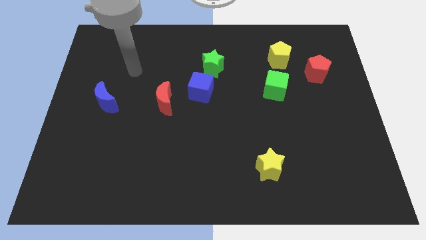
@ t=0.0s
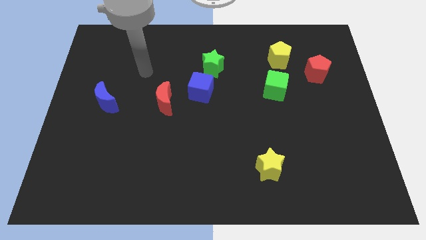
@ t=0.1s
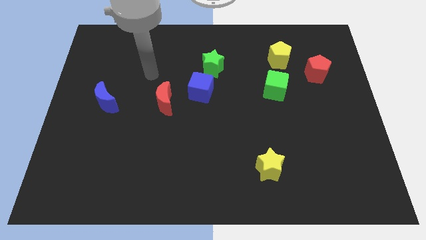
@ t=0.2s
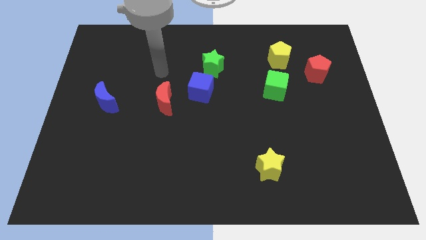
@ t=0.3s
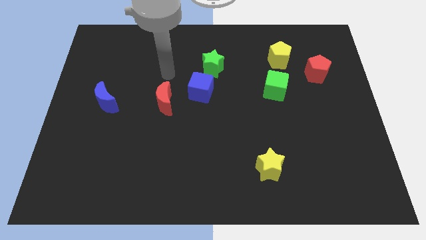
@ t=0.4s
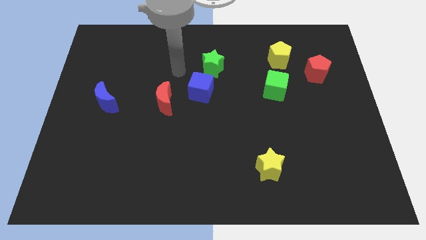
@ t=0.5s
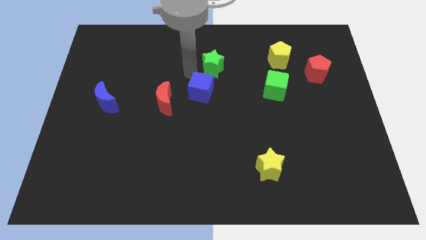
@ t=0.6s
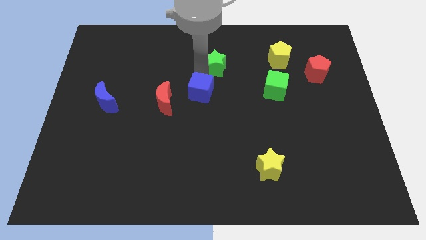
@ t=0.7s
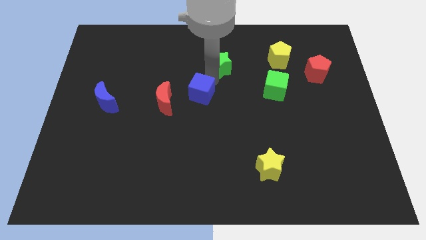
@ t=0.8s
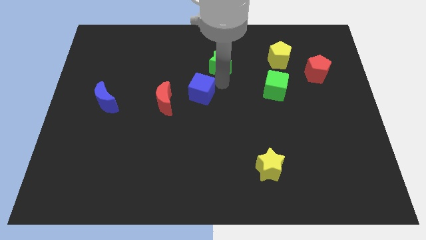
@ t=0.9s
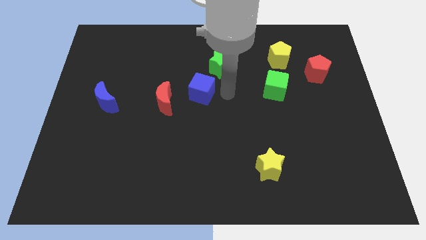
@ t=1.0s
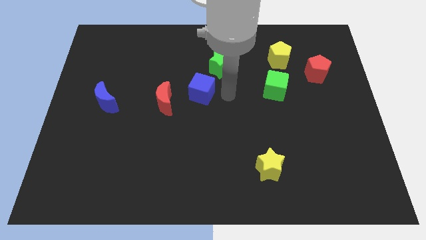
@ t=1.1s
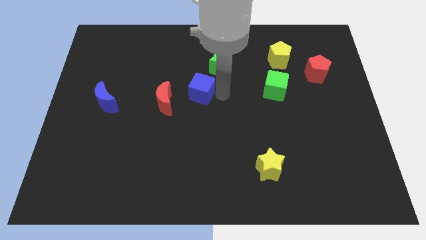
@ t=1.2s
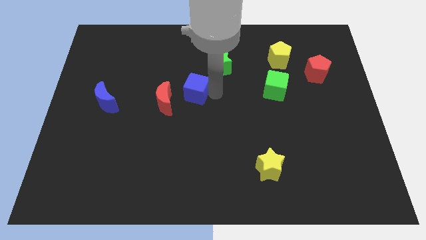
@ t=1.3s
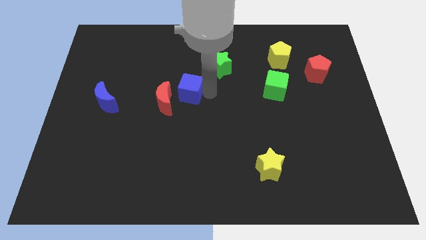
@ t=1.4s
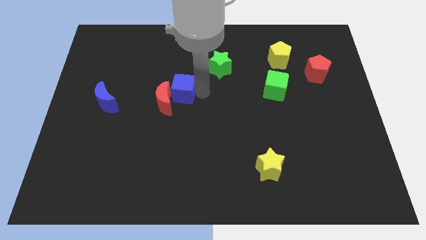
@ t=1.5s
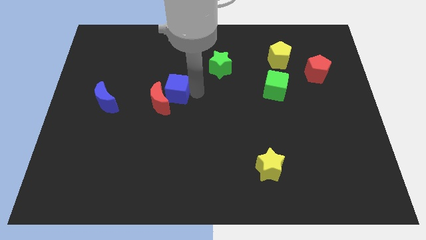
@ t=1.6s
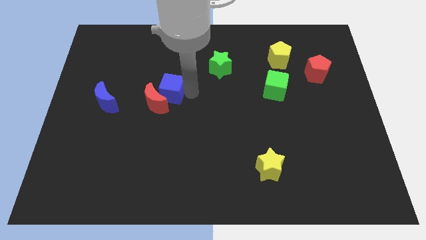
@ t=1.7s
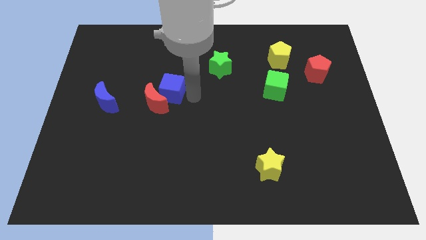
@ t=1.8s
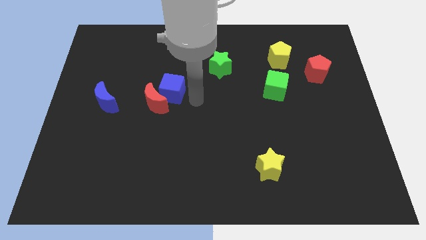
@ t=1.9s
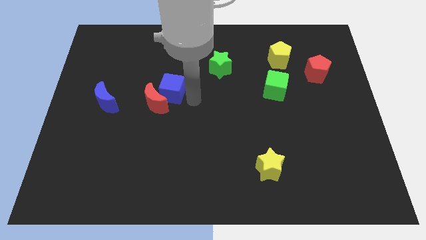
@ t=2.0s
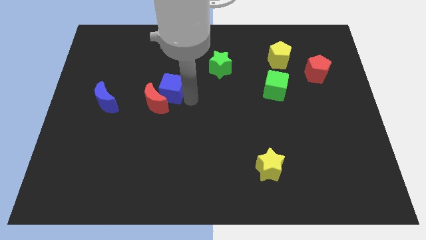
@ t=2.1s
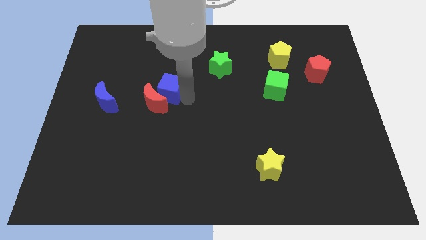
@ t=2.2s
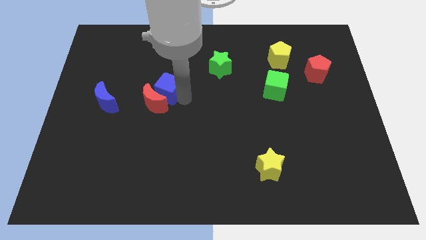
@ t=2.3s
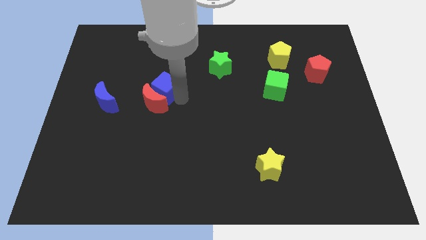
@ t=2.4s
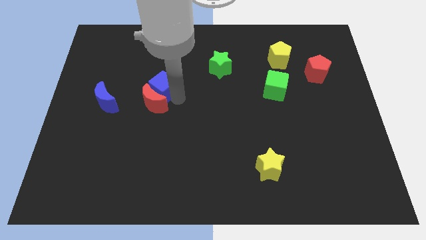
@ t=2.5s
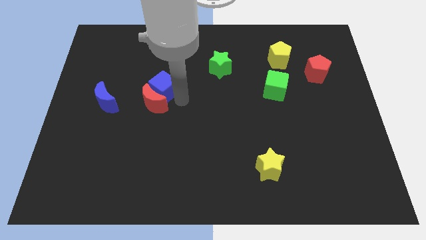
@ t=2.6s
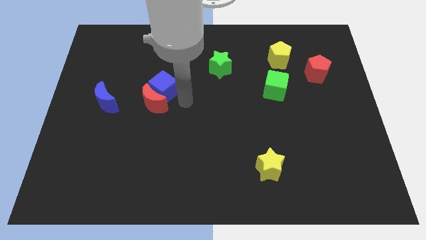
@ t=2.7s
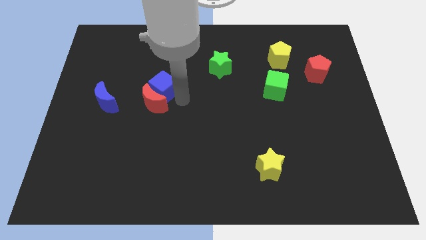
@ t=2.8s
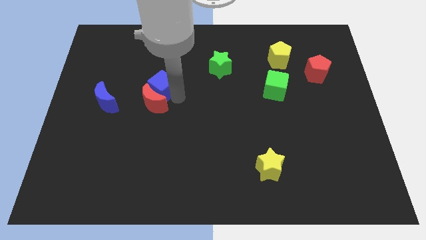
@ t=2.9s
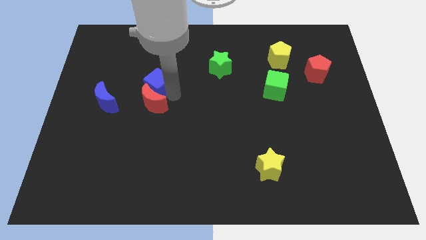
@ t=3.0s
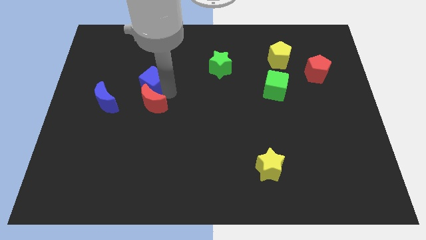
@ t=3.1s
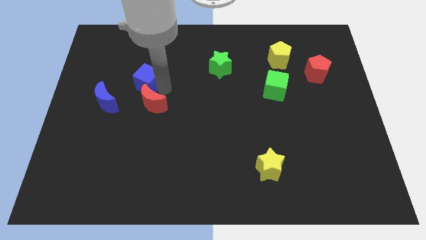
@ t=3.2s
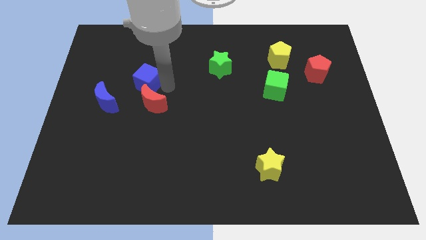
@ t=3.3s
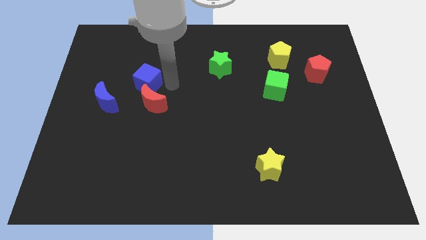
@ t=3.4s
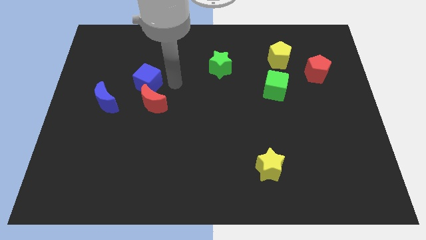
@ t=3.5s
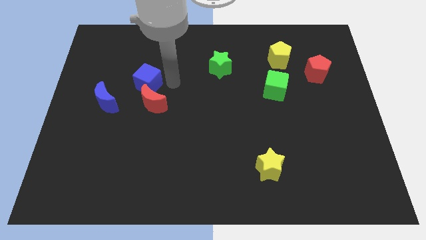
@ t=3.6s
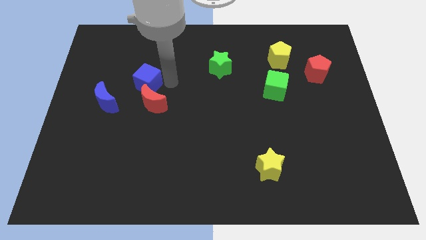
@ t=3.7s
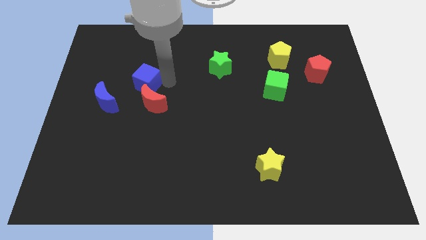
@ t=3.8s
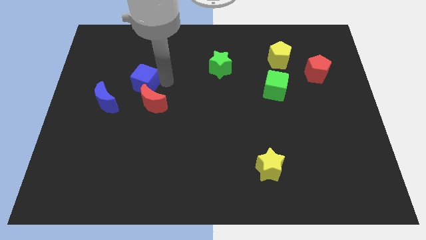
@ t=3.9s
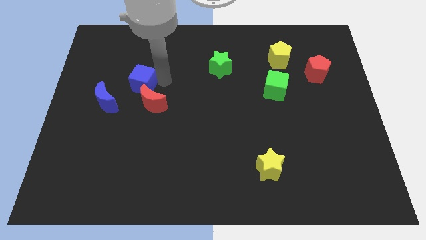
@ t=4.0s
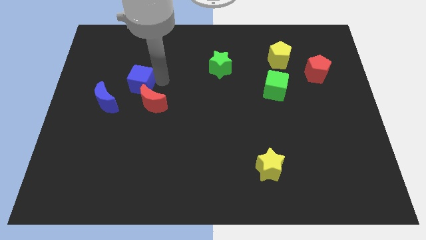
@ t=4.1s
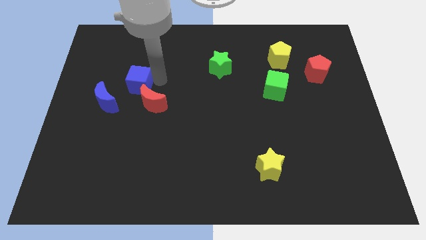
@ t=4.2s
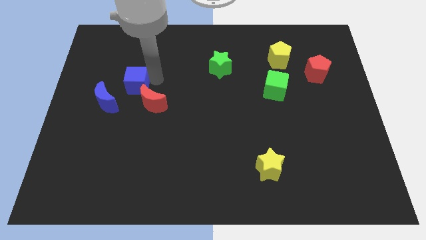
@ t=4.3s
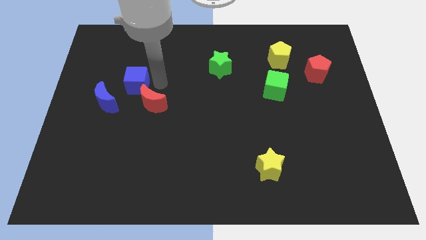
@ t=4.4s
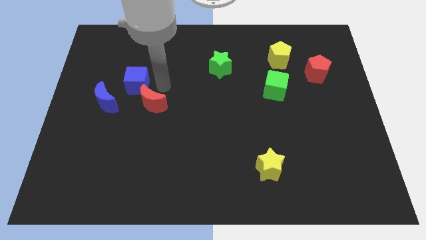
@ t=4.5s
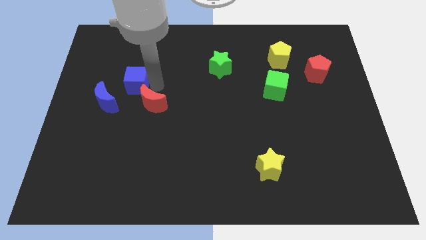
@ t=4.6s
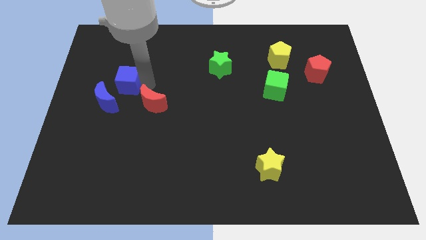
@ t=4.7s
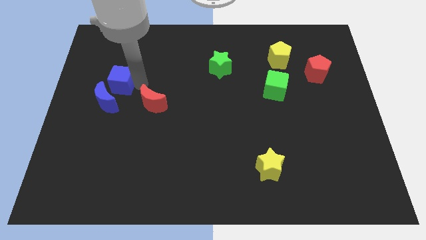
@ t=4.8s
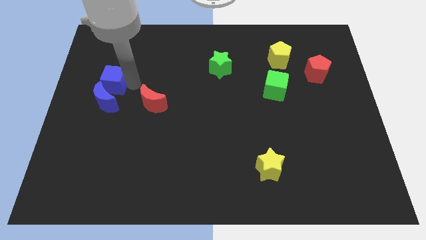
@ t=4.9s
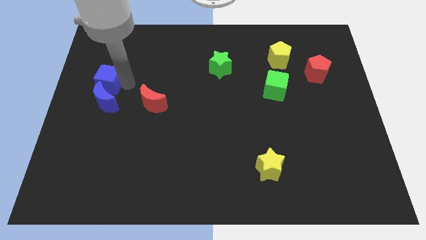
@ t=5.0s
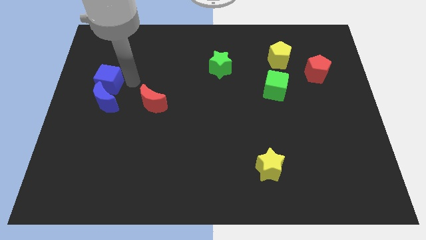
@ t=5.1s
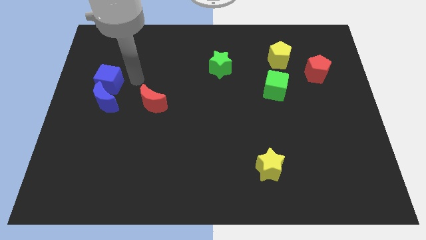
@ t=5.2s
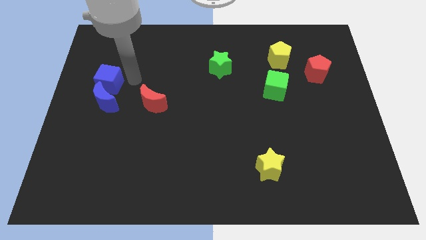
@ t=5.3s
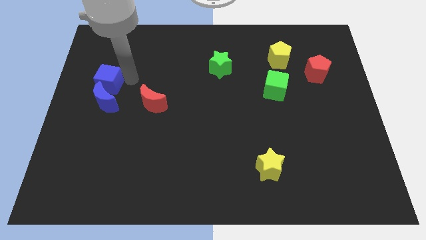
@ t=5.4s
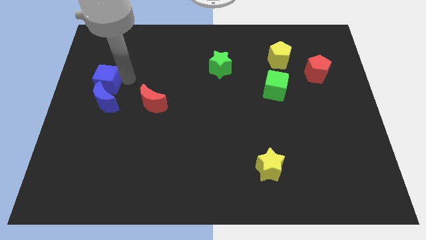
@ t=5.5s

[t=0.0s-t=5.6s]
move the blue cube to the left side of the board
